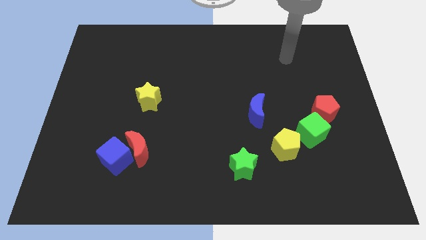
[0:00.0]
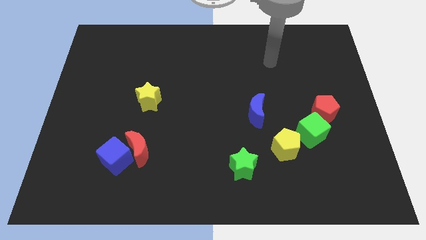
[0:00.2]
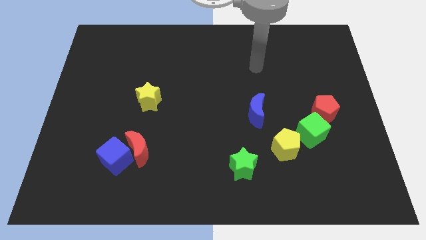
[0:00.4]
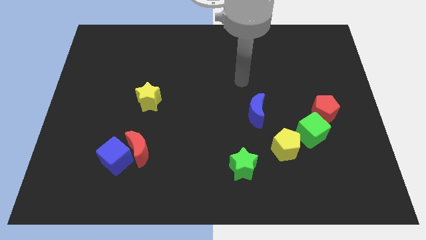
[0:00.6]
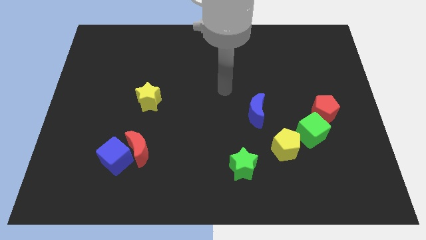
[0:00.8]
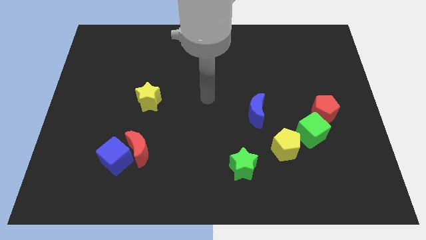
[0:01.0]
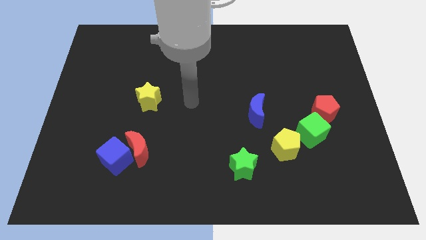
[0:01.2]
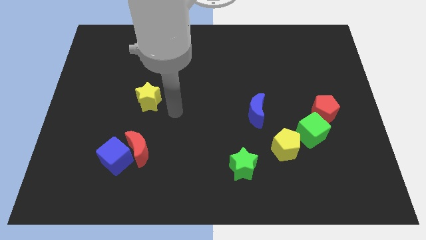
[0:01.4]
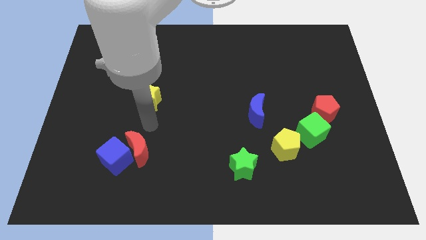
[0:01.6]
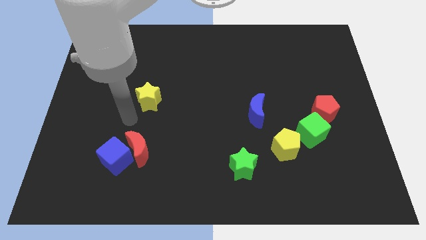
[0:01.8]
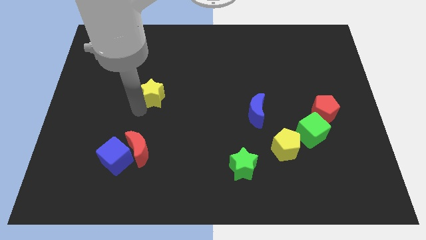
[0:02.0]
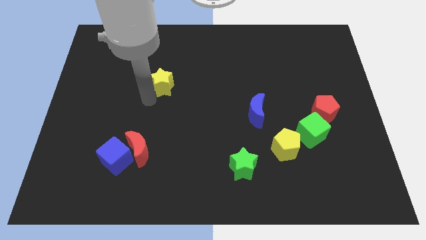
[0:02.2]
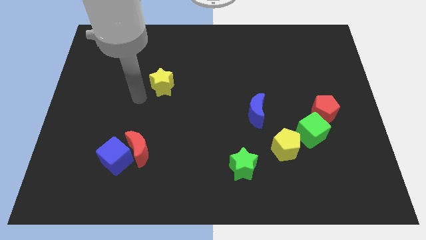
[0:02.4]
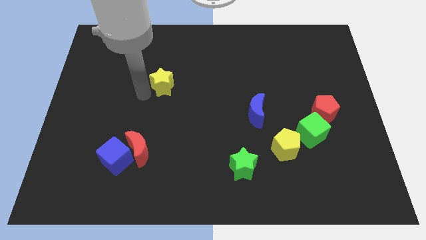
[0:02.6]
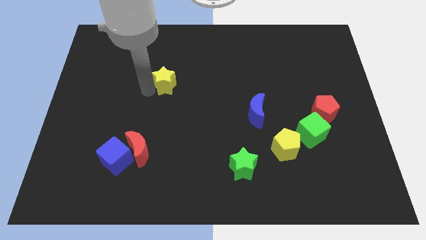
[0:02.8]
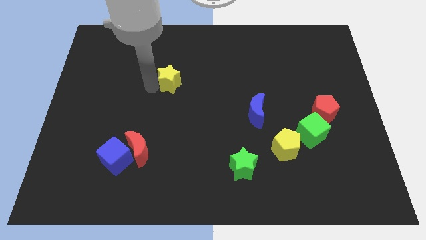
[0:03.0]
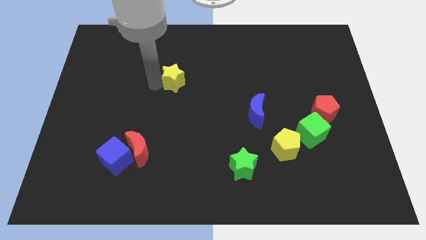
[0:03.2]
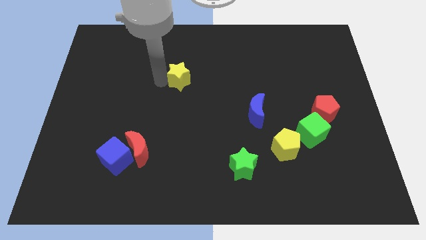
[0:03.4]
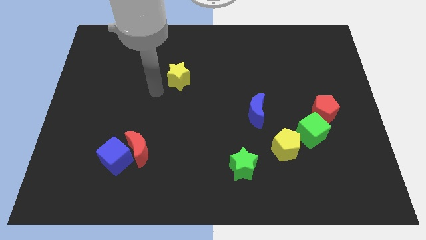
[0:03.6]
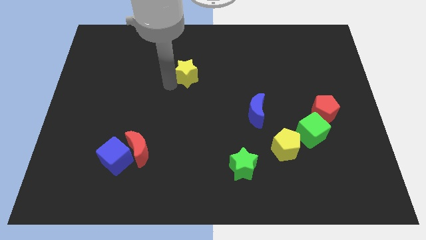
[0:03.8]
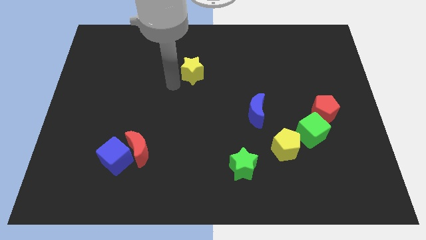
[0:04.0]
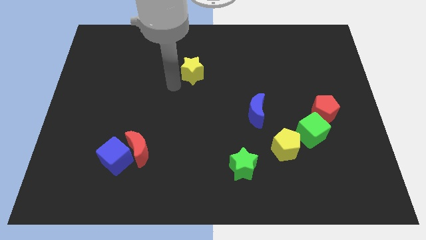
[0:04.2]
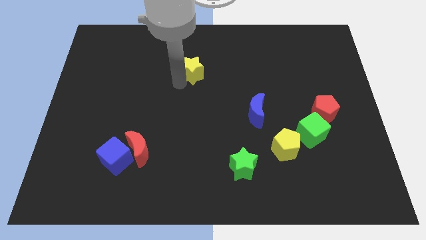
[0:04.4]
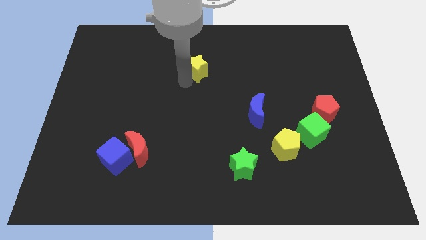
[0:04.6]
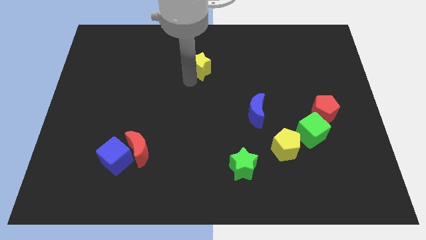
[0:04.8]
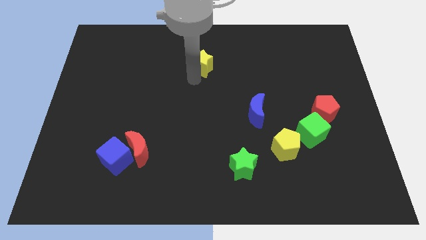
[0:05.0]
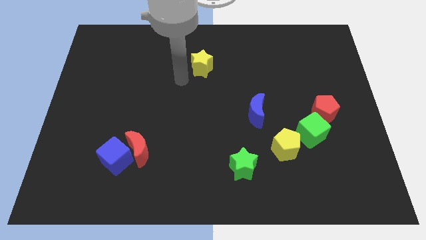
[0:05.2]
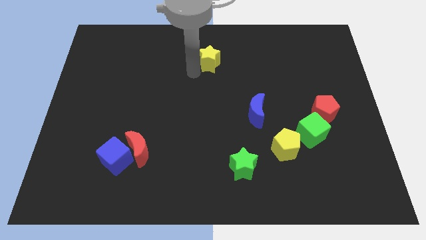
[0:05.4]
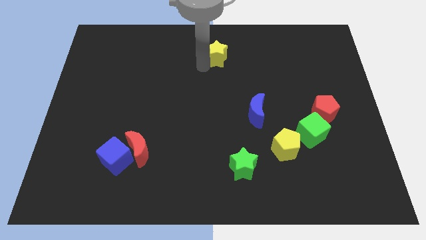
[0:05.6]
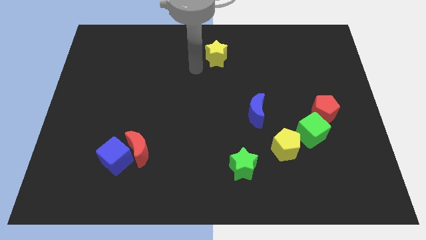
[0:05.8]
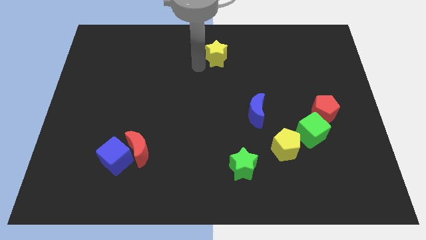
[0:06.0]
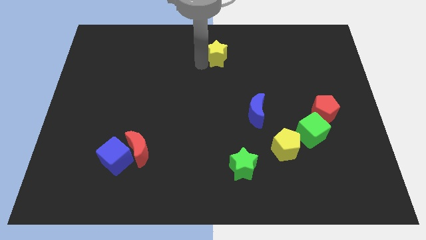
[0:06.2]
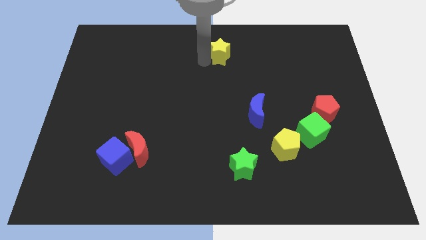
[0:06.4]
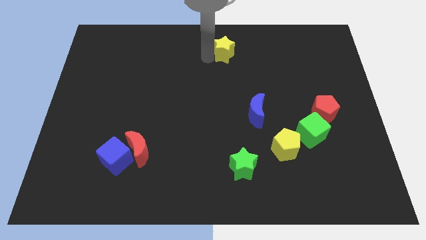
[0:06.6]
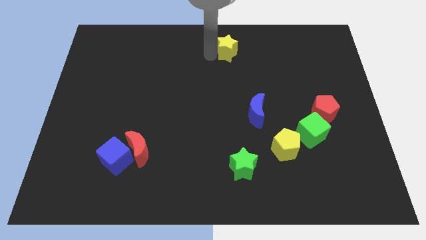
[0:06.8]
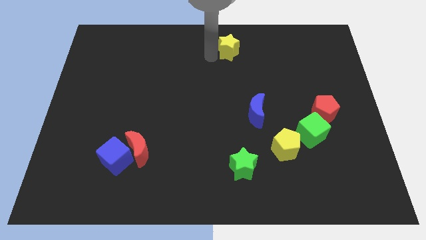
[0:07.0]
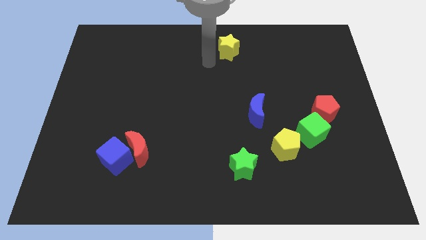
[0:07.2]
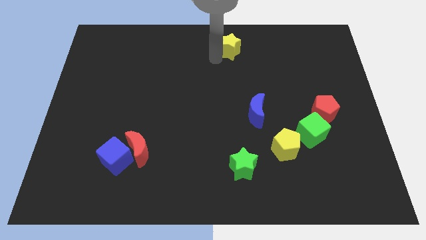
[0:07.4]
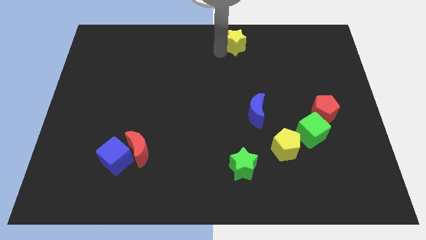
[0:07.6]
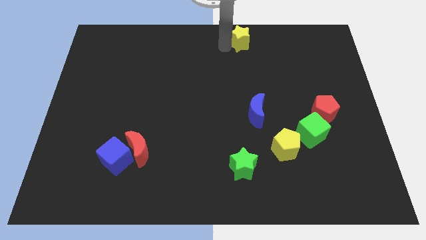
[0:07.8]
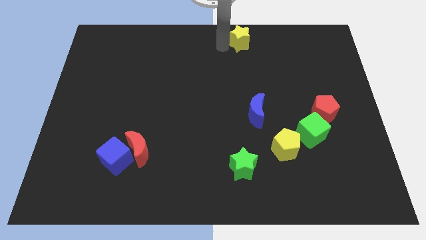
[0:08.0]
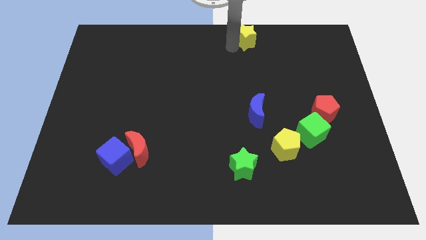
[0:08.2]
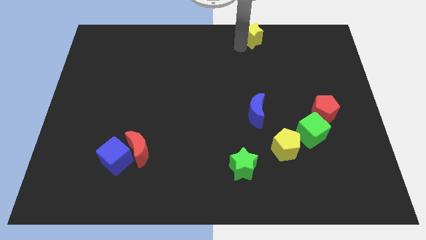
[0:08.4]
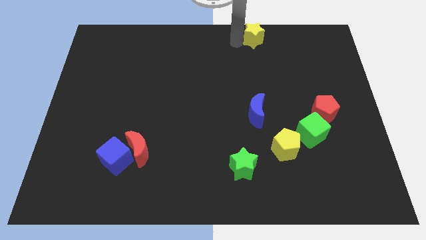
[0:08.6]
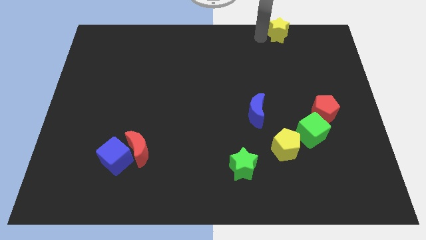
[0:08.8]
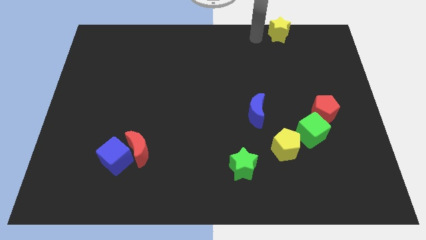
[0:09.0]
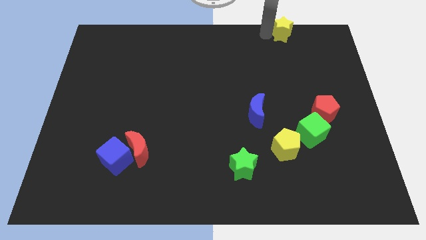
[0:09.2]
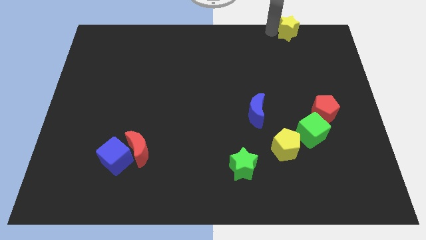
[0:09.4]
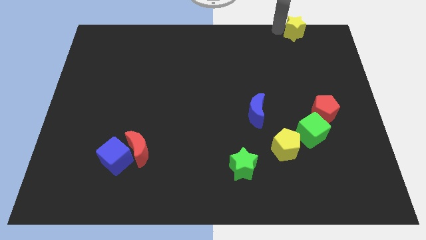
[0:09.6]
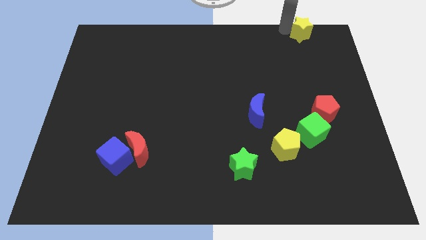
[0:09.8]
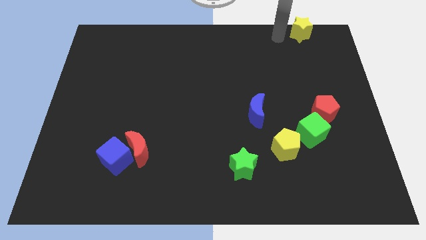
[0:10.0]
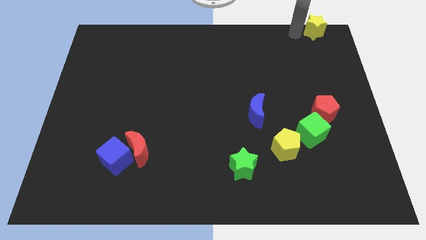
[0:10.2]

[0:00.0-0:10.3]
push the yellow star to the upper right corner

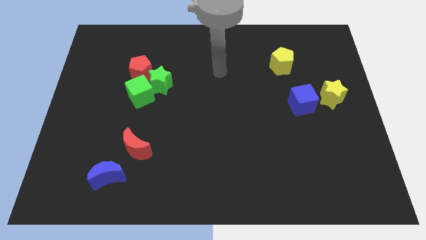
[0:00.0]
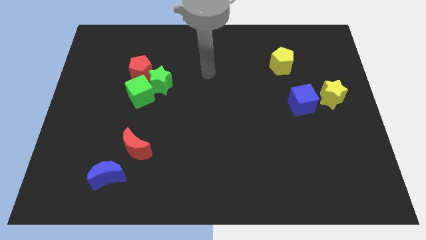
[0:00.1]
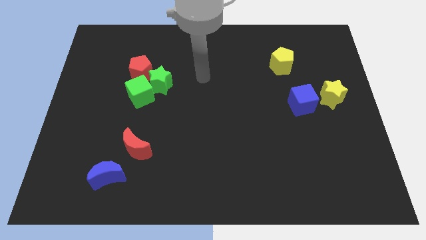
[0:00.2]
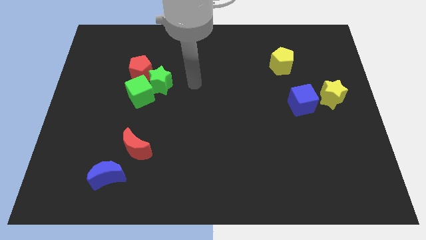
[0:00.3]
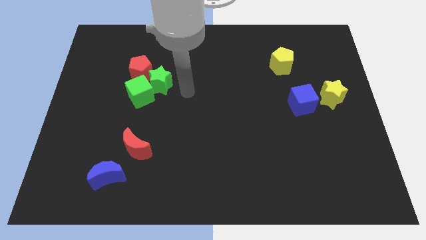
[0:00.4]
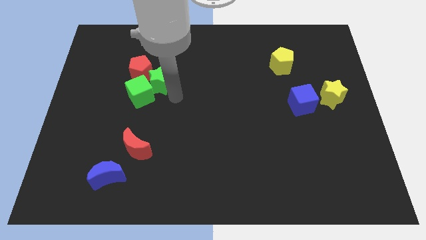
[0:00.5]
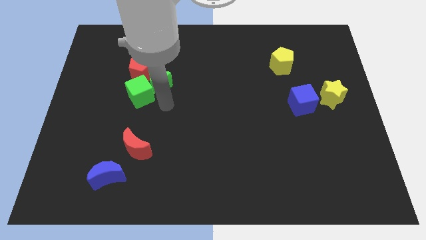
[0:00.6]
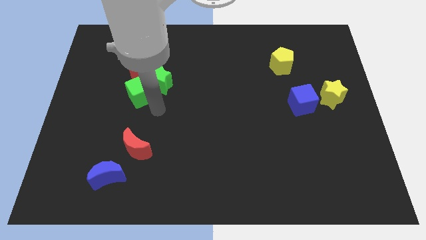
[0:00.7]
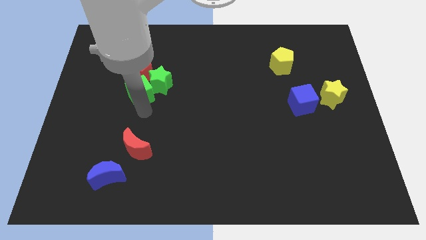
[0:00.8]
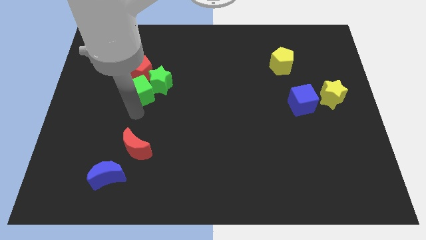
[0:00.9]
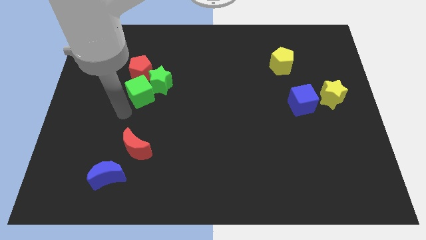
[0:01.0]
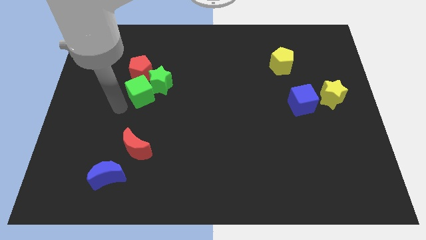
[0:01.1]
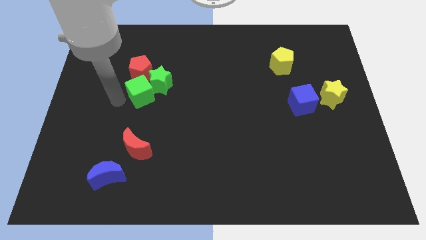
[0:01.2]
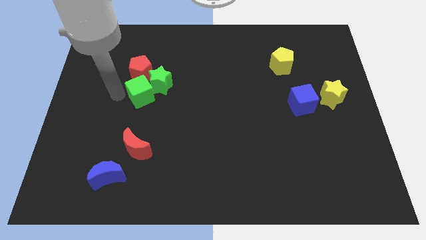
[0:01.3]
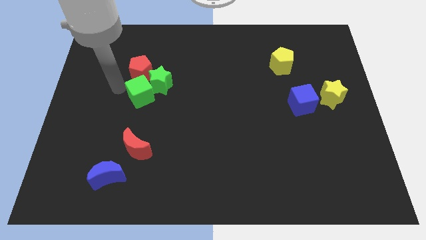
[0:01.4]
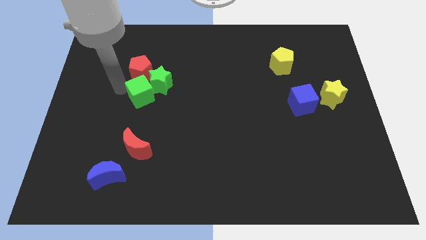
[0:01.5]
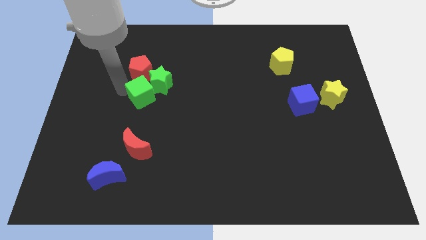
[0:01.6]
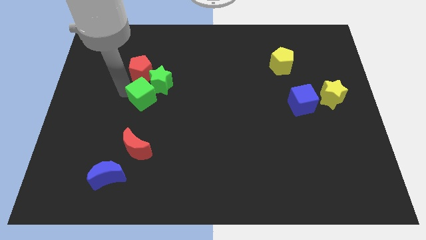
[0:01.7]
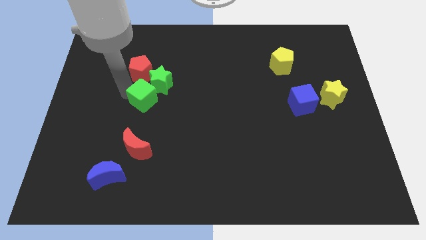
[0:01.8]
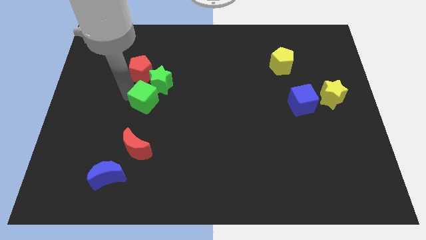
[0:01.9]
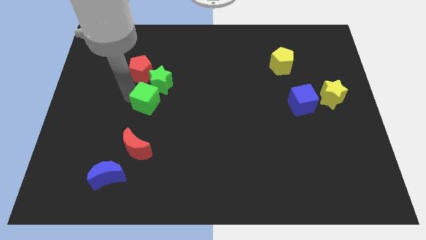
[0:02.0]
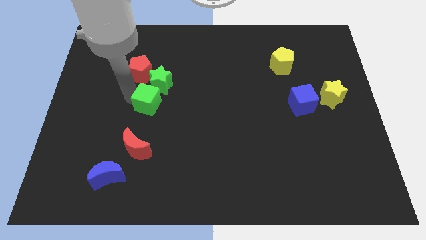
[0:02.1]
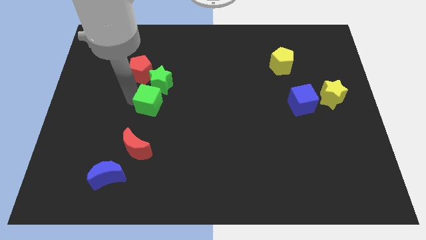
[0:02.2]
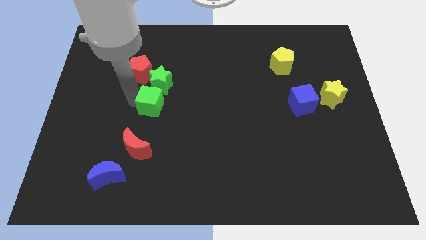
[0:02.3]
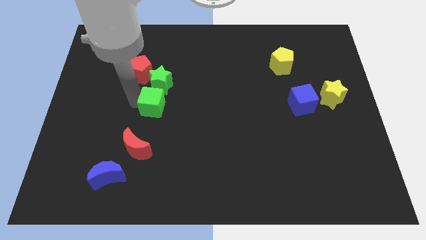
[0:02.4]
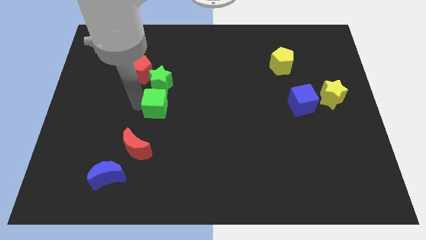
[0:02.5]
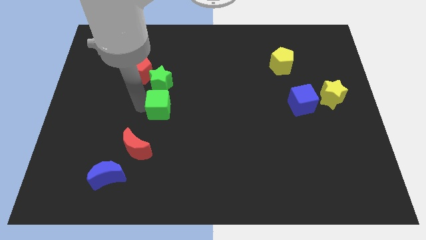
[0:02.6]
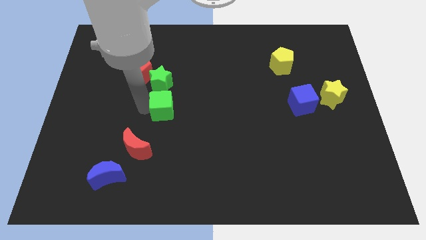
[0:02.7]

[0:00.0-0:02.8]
slide the green cube to the center
